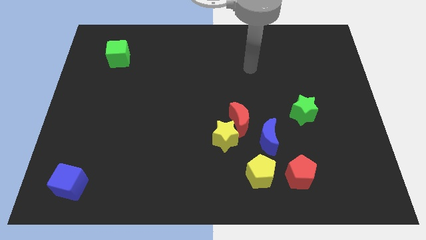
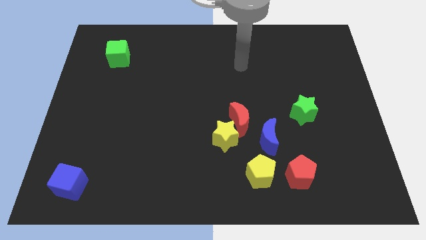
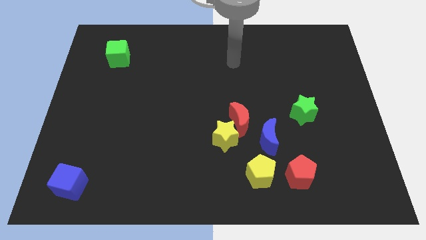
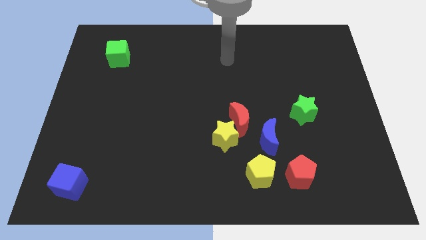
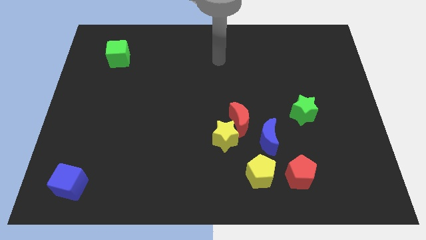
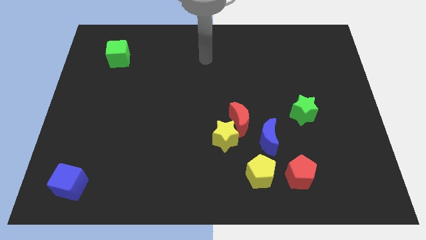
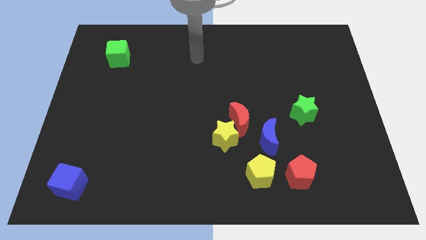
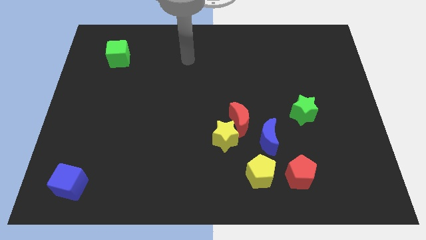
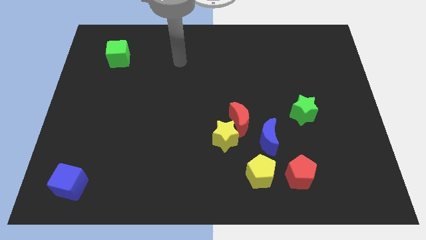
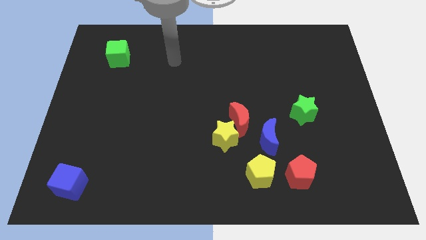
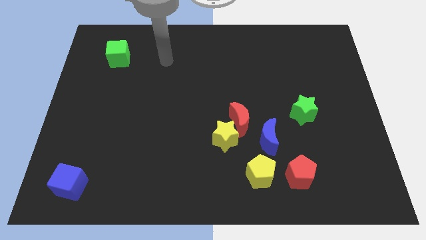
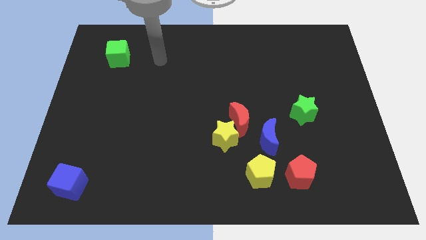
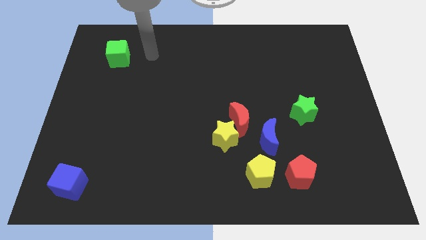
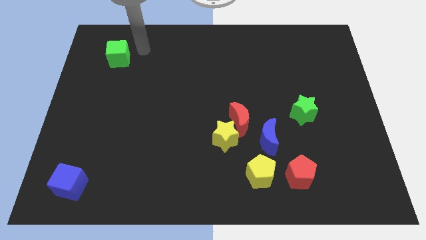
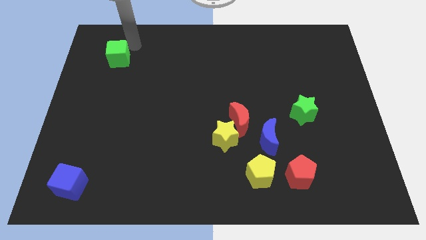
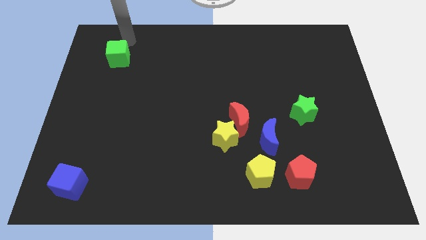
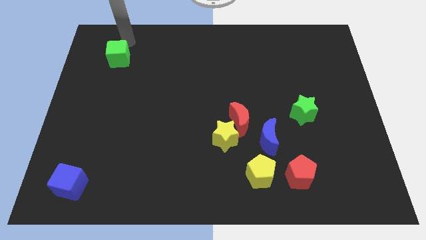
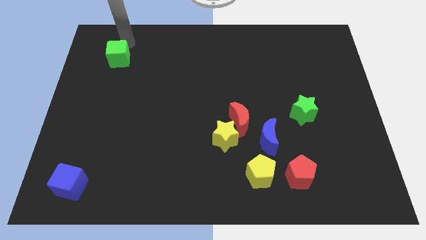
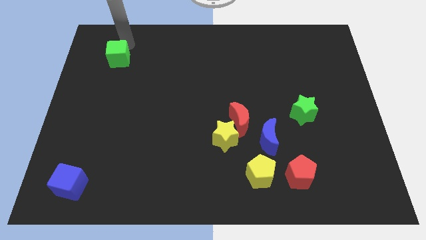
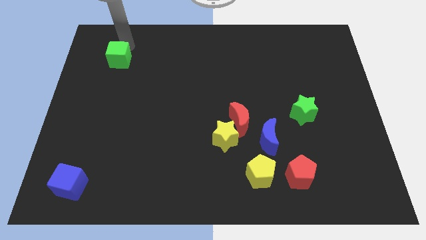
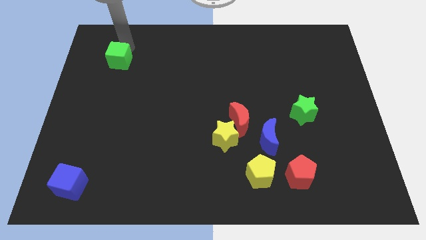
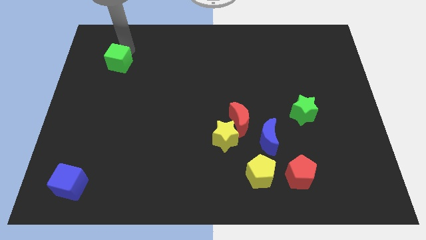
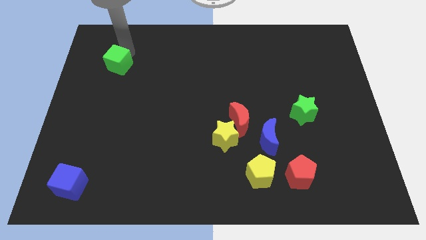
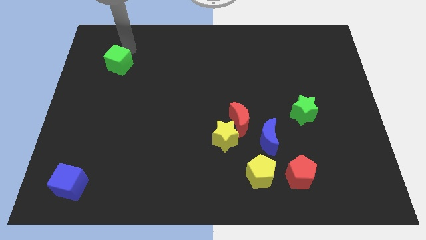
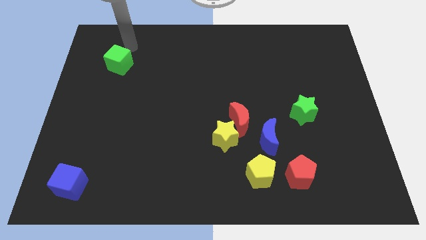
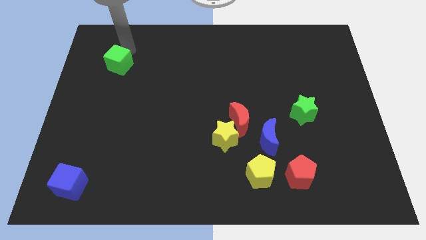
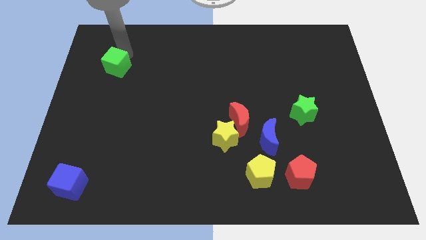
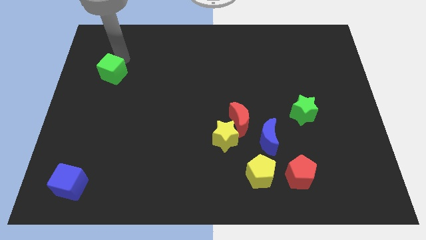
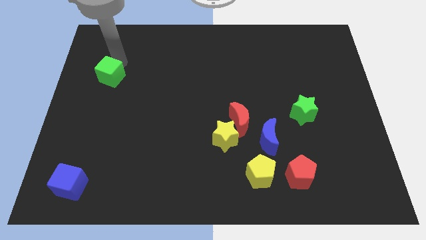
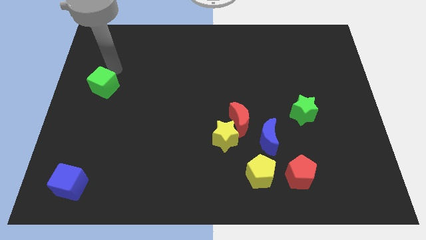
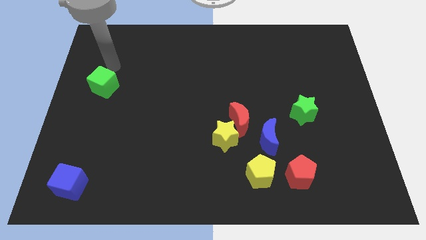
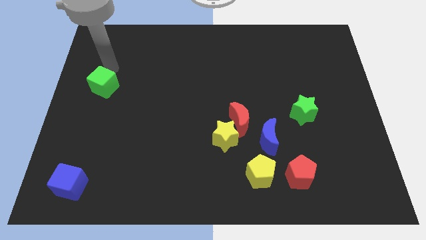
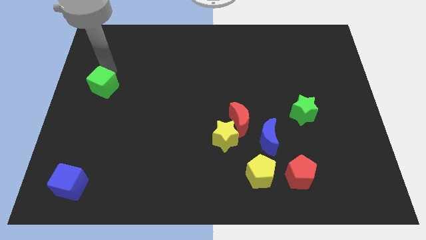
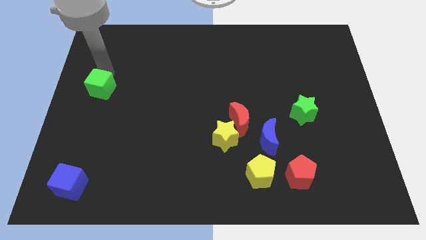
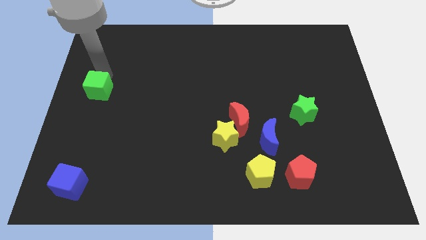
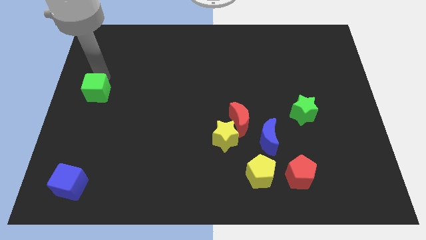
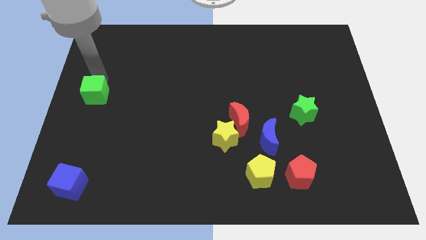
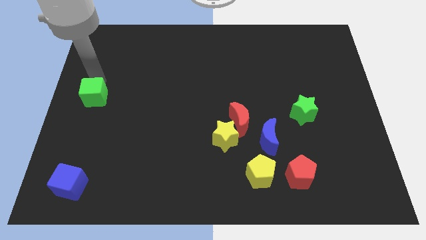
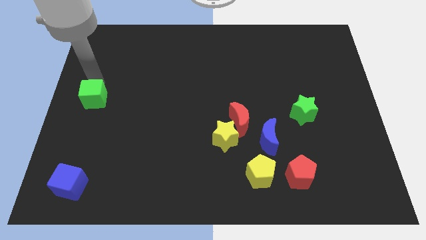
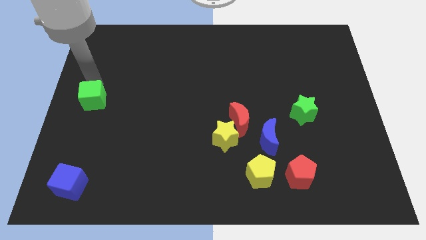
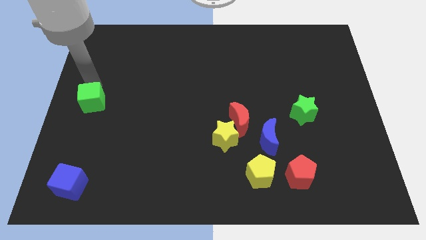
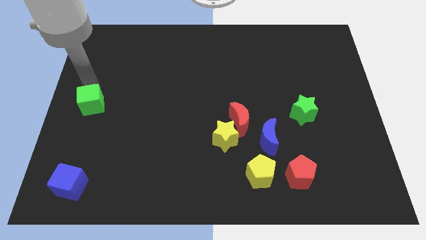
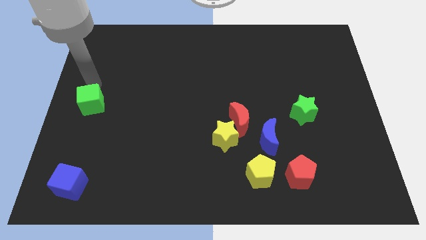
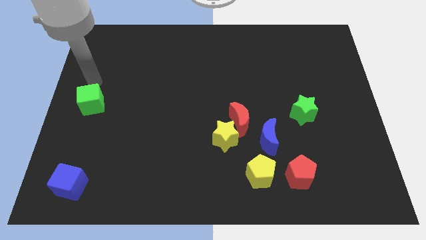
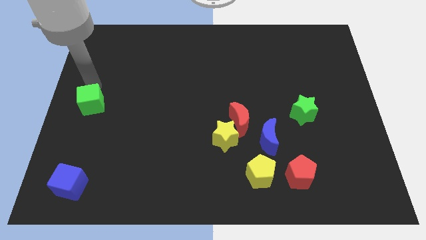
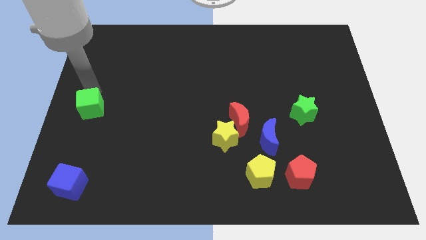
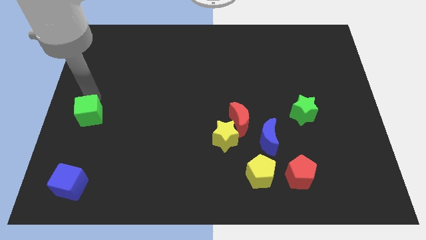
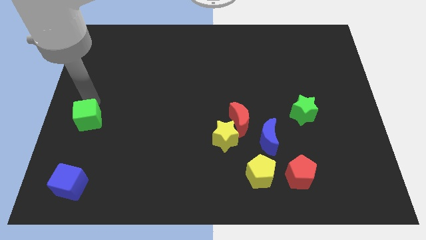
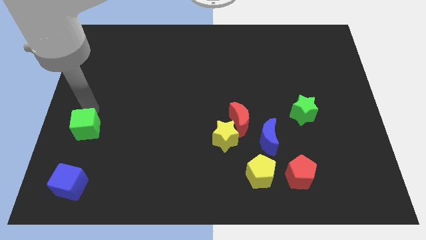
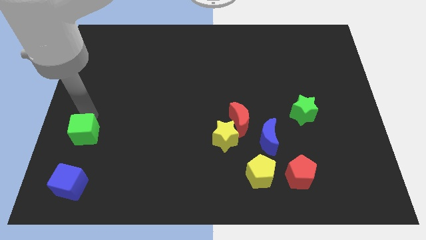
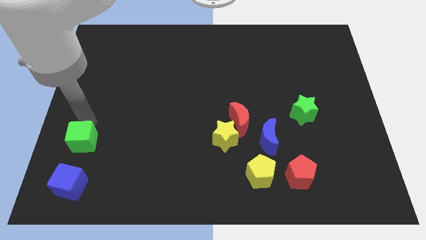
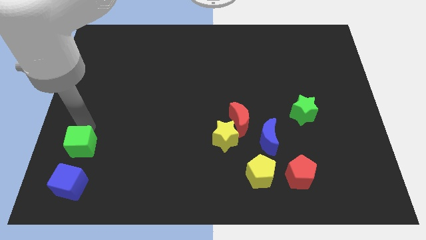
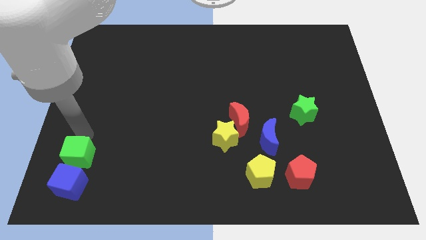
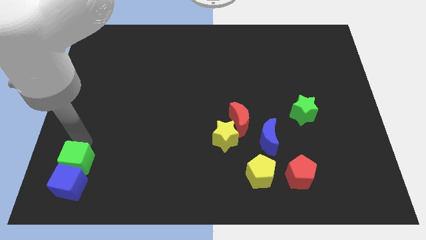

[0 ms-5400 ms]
move the green cube close to the blue cube

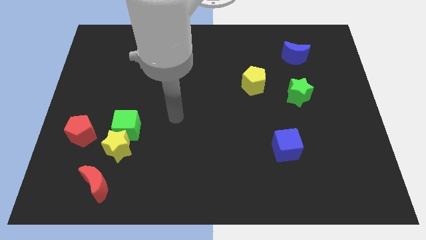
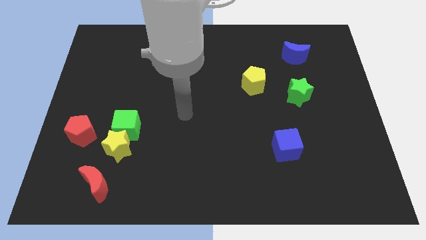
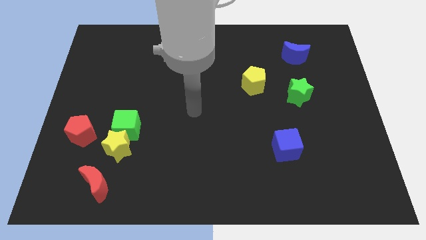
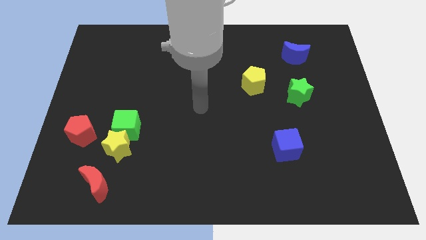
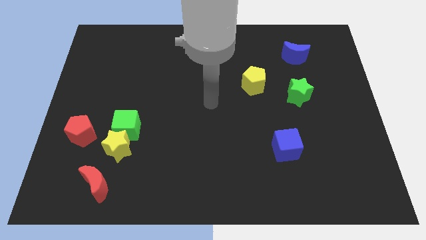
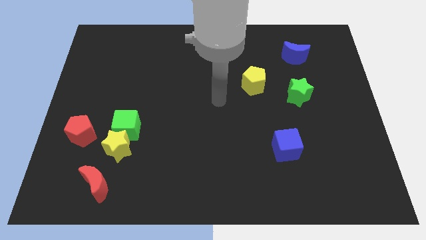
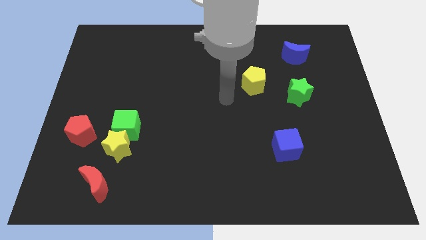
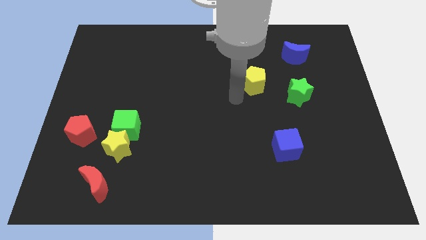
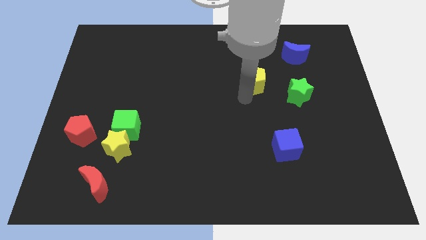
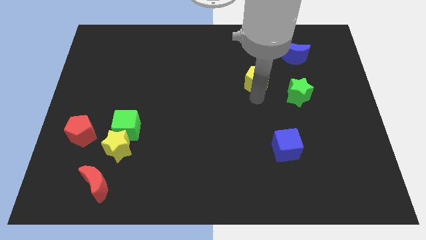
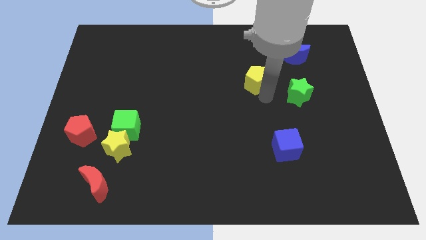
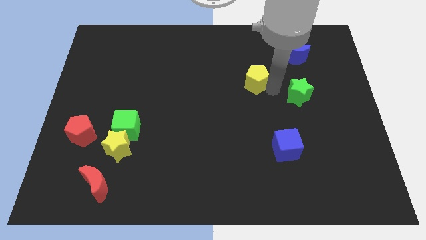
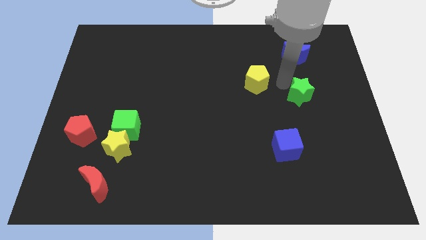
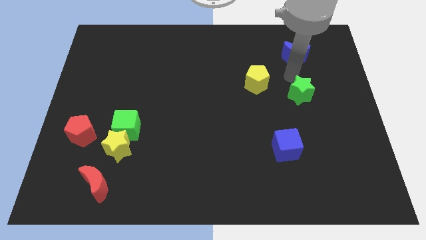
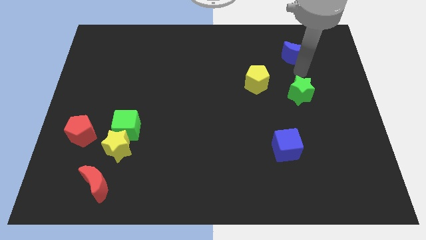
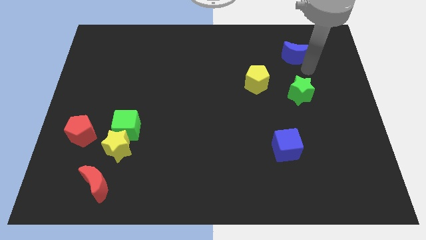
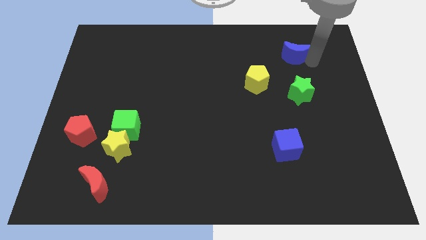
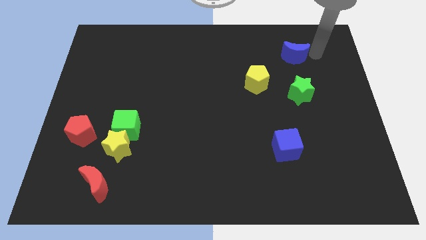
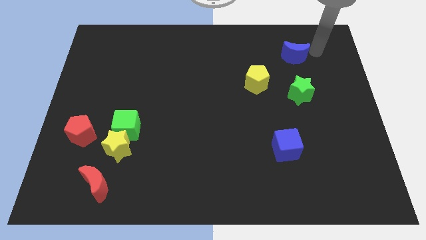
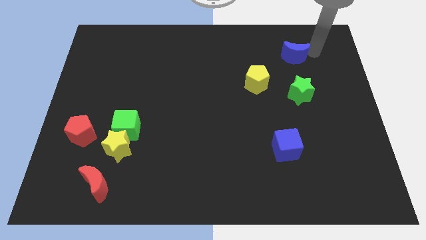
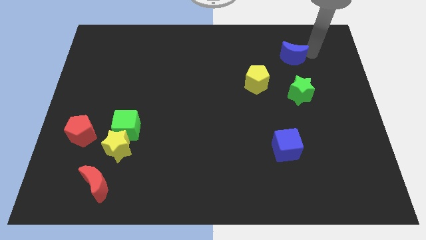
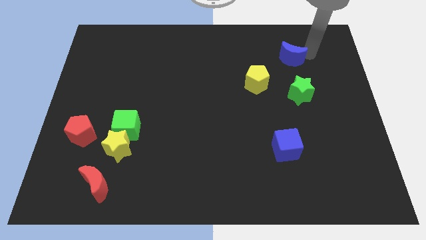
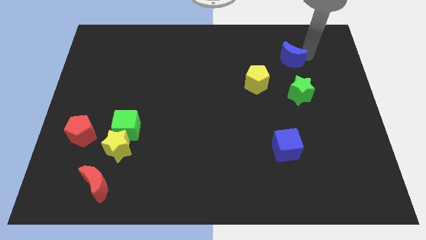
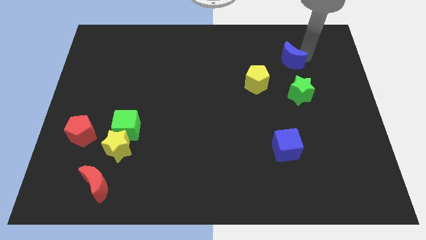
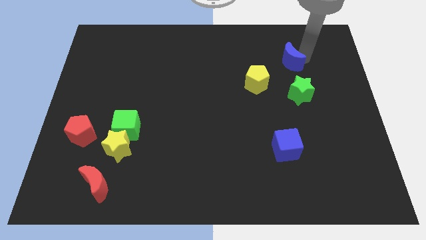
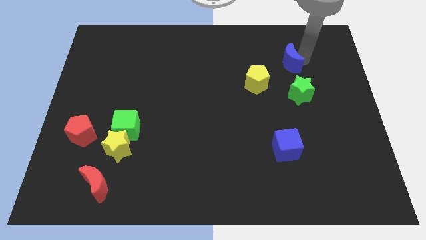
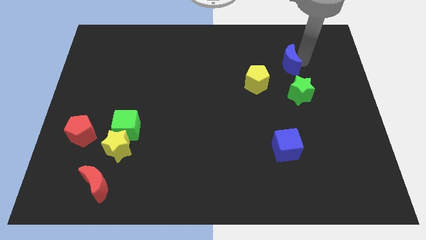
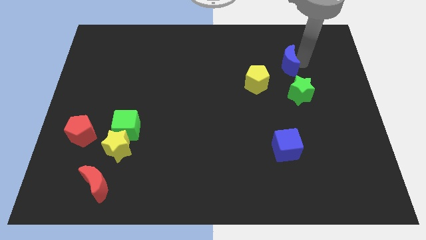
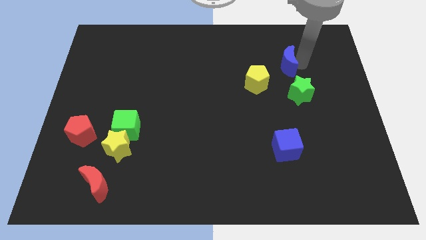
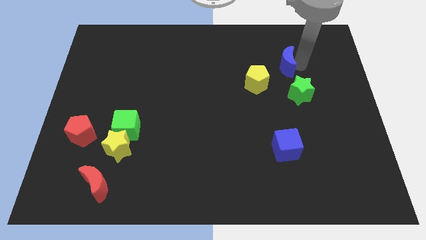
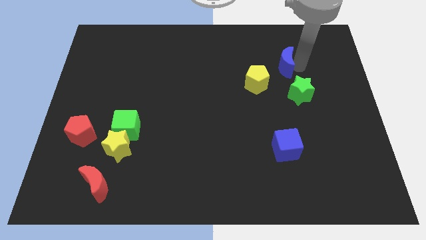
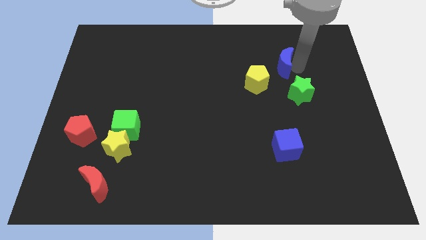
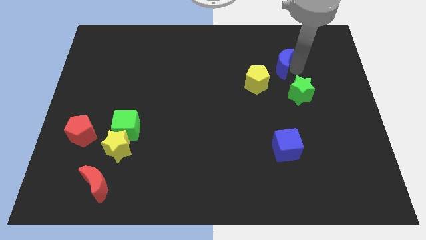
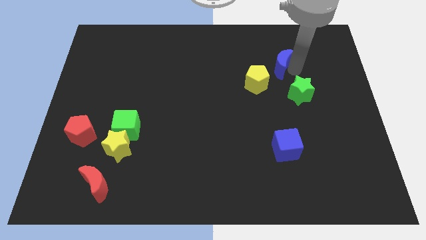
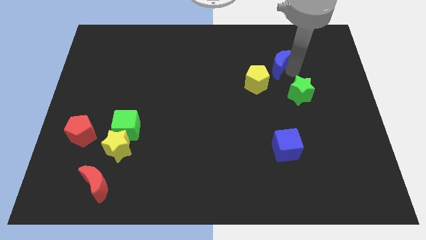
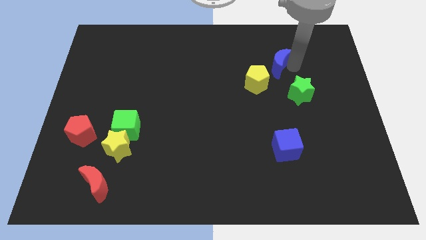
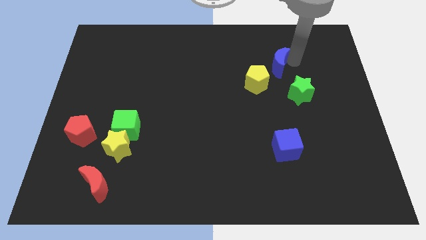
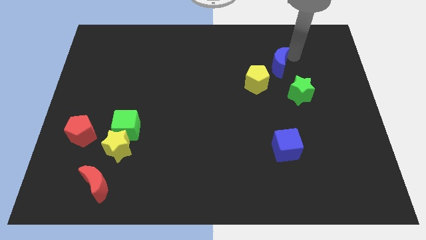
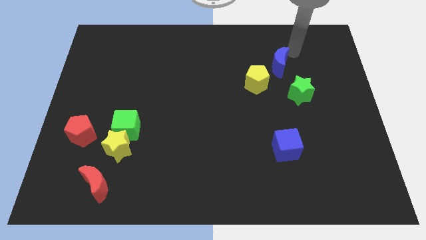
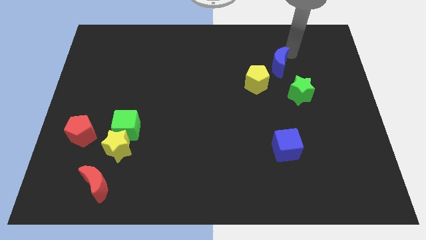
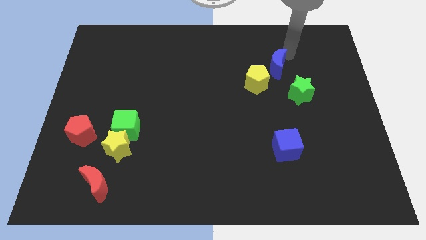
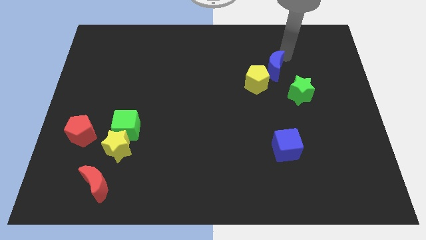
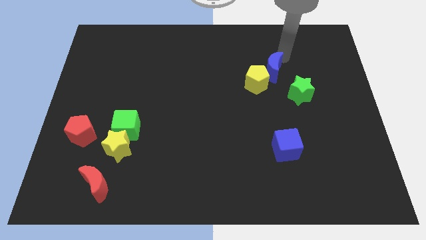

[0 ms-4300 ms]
move the blue moon close to the yellow pentagon
